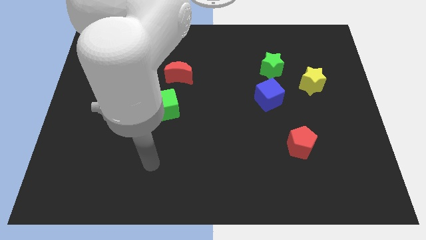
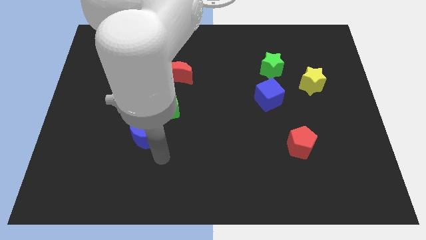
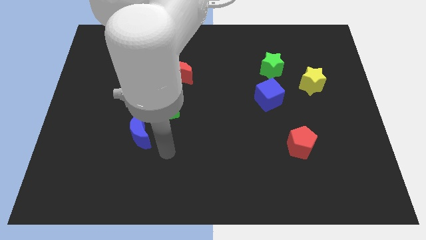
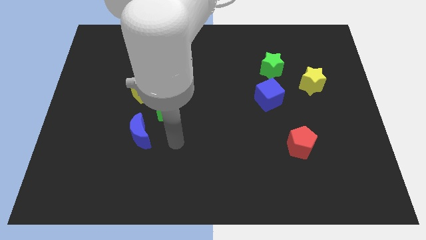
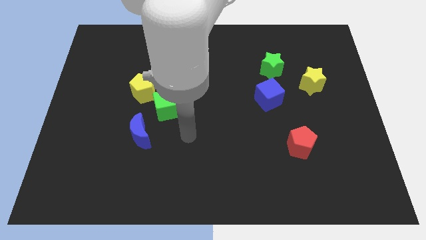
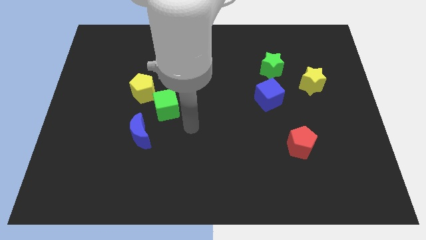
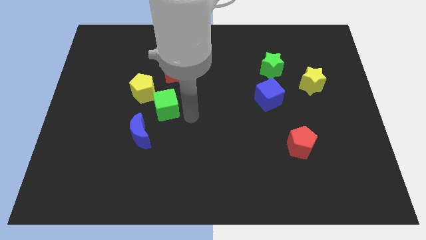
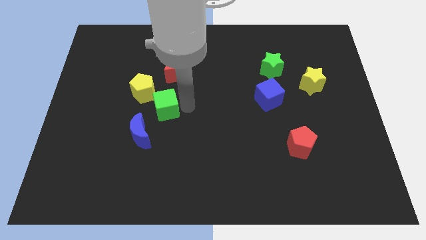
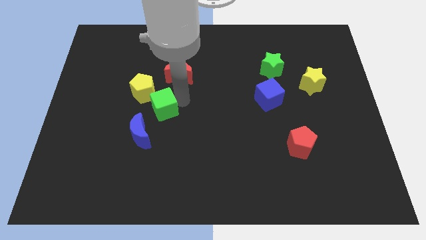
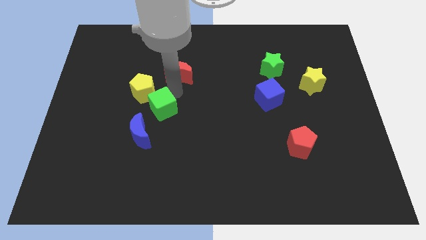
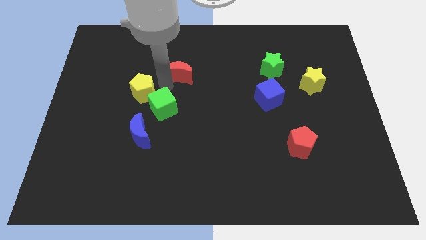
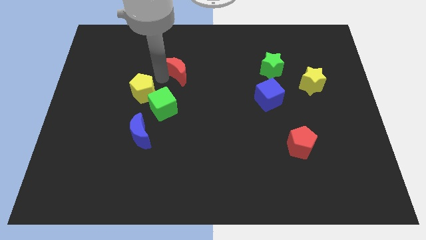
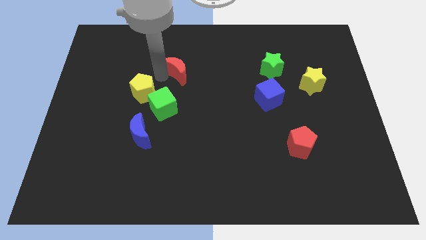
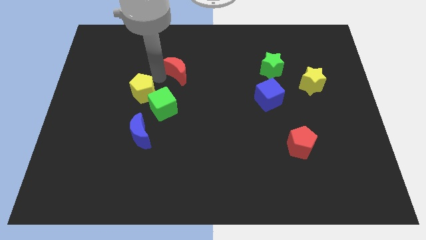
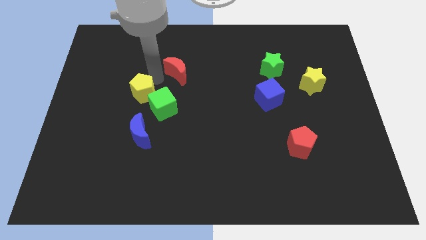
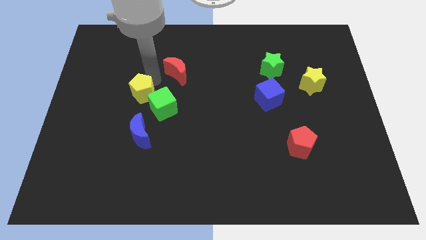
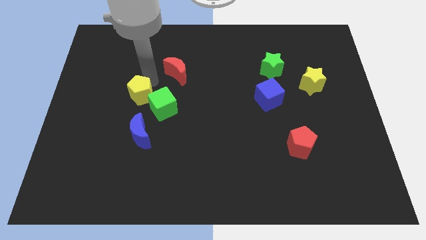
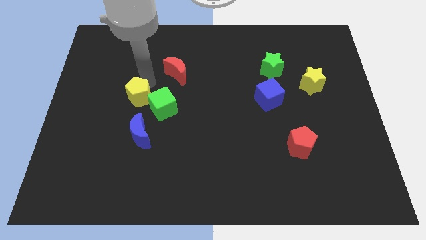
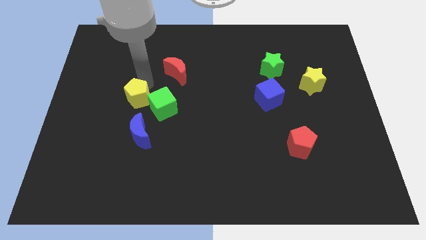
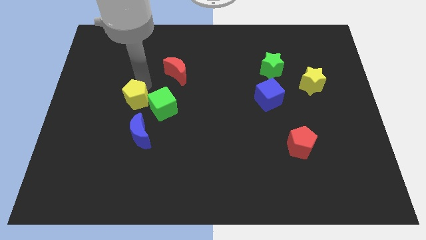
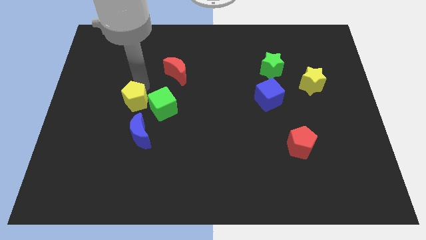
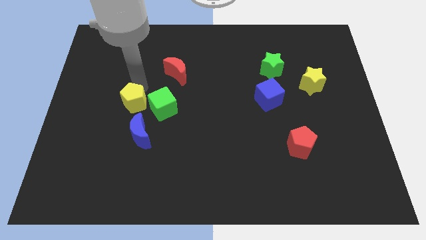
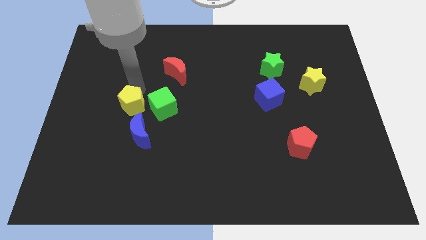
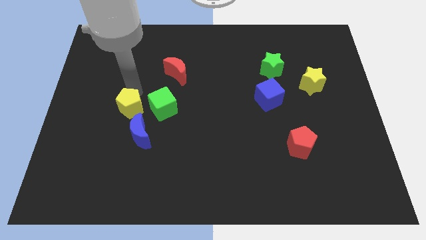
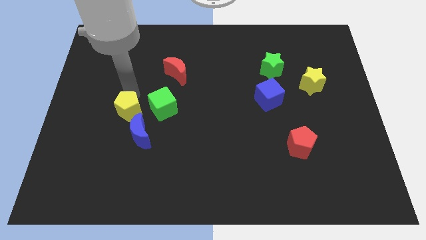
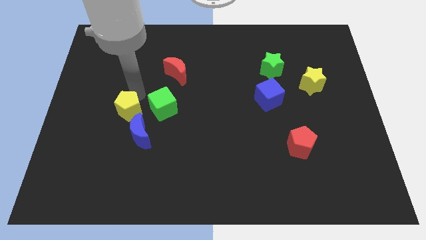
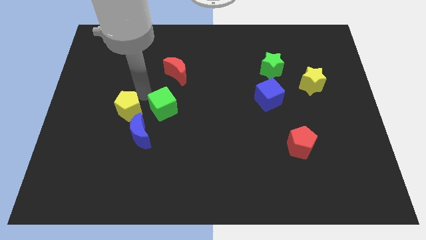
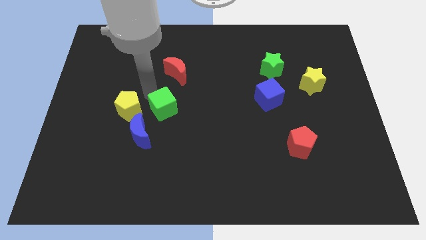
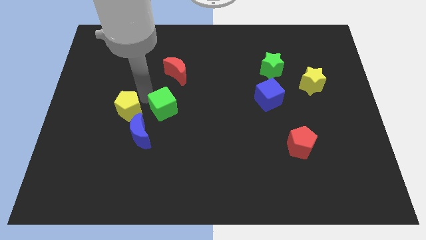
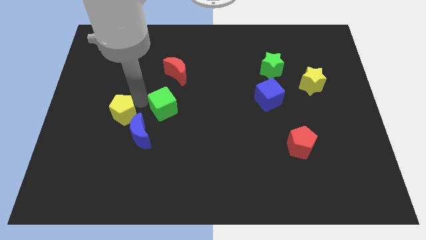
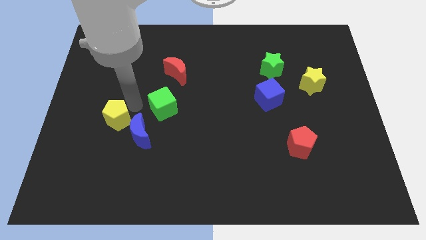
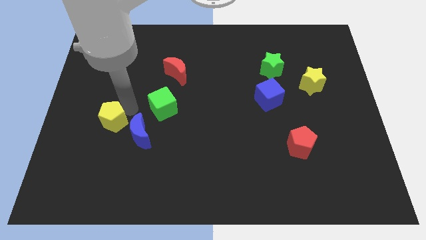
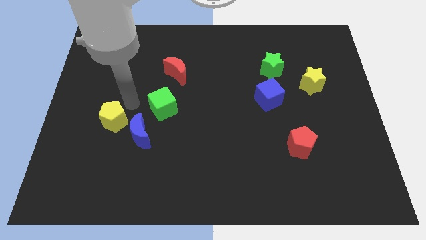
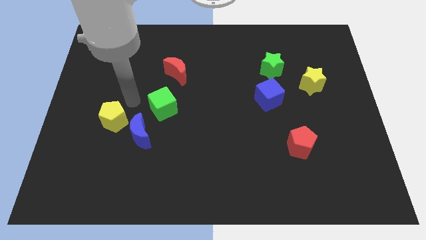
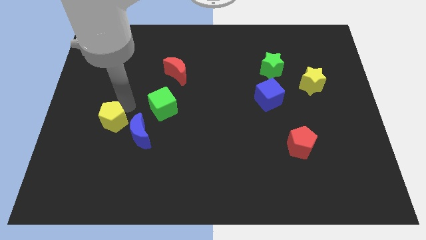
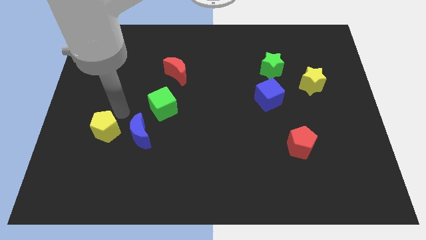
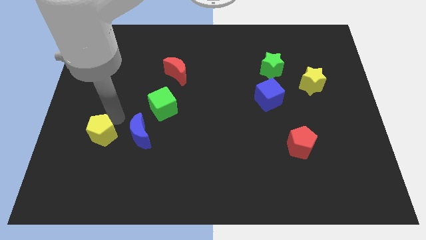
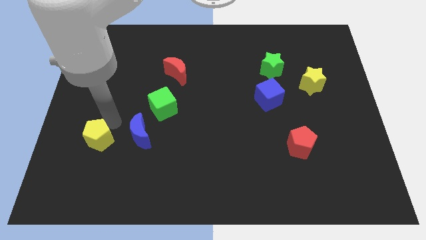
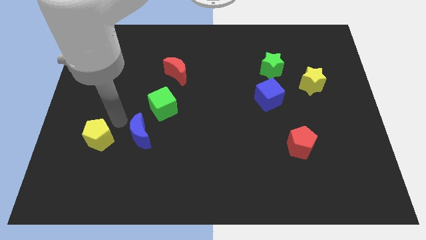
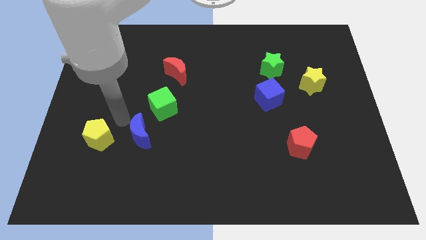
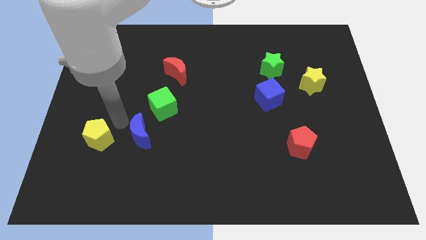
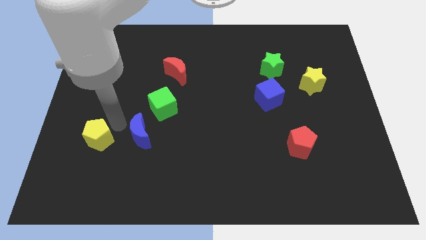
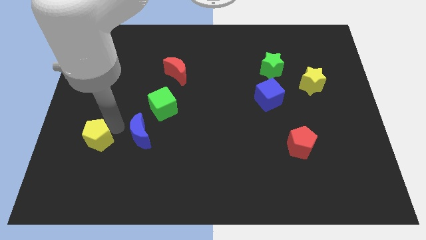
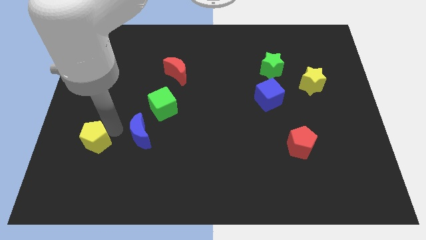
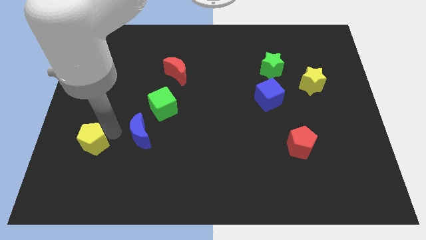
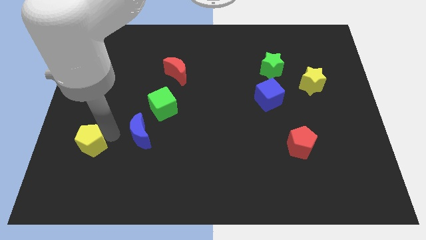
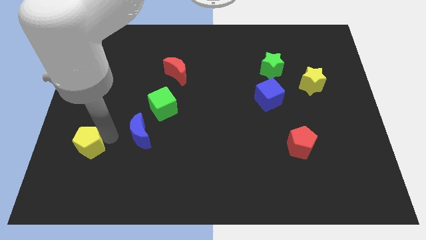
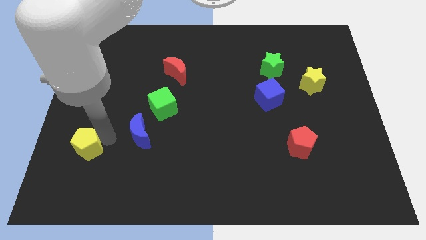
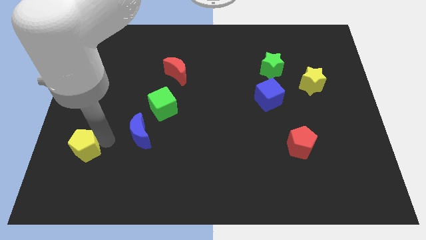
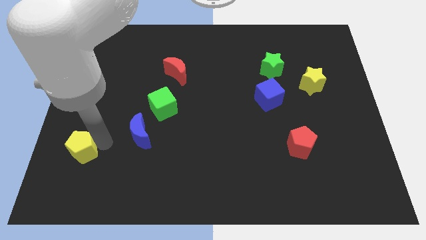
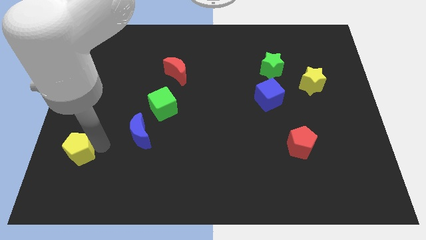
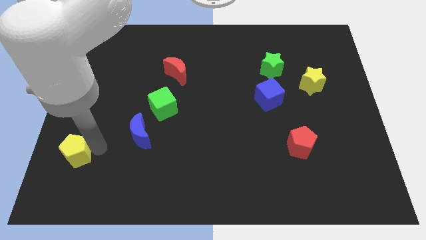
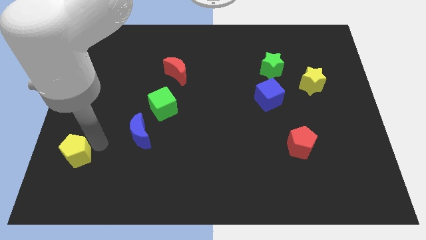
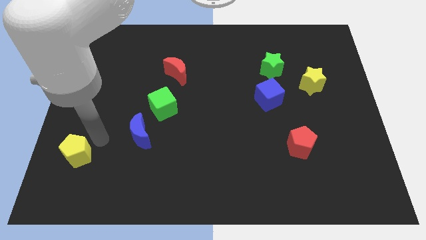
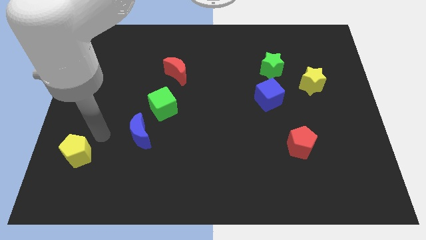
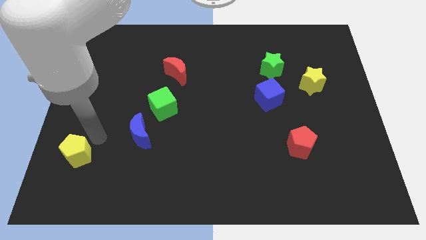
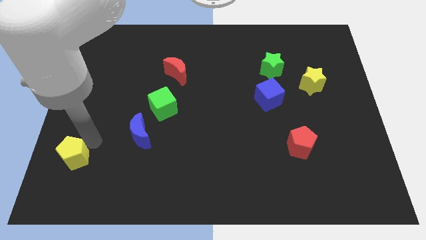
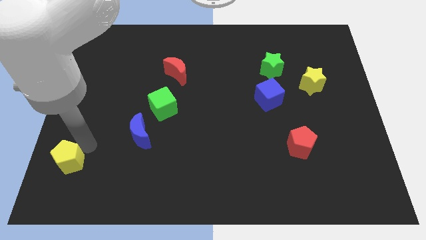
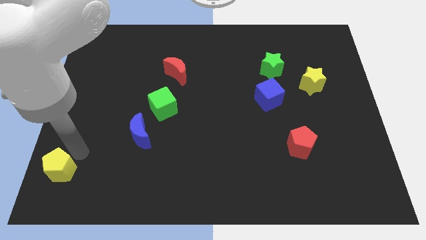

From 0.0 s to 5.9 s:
push the yellow pentagon to the lower left corner

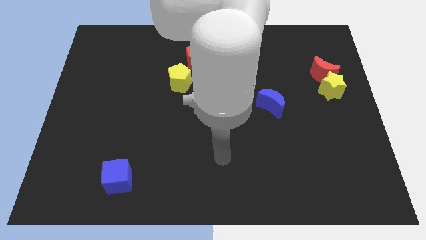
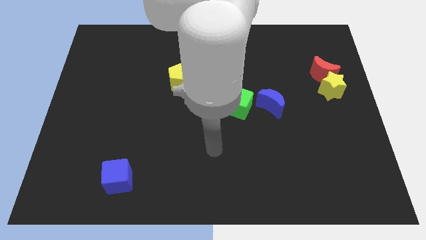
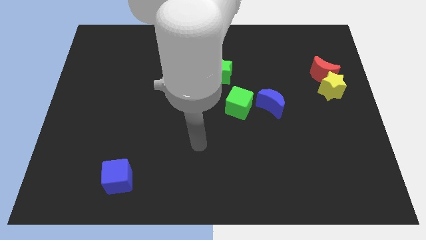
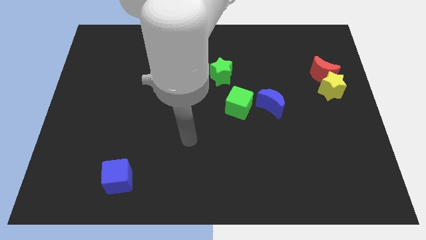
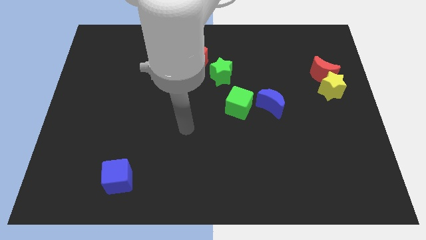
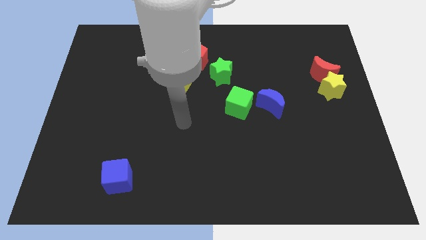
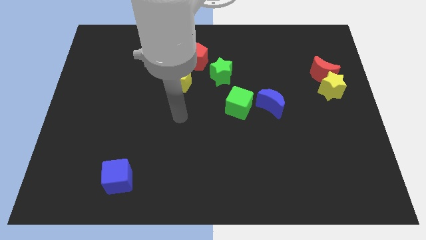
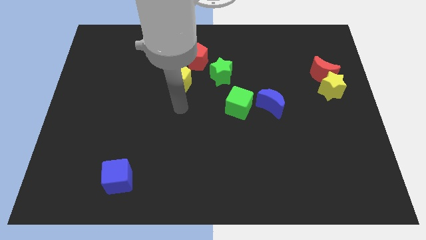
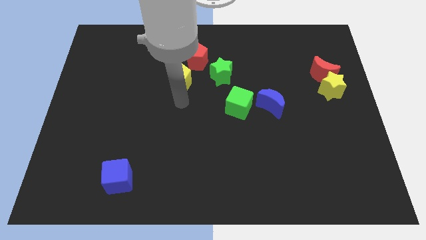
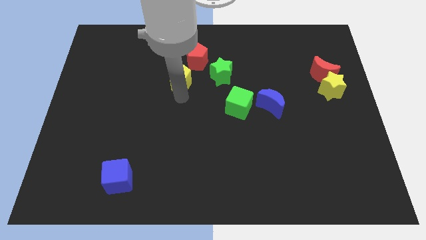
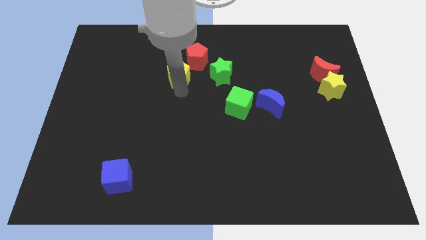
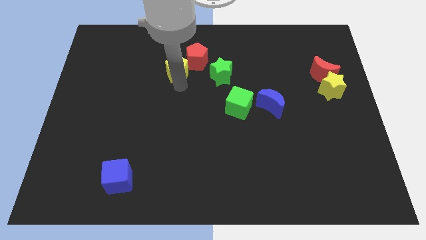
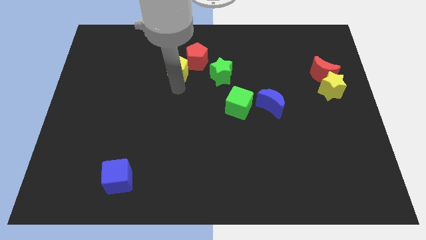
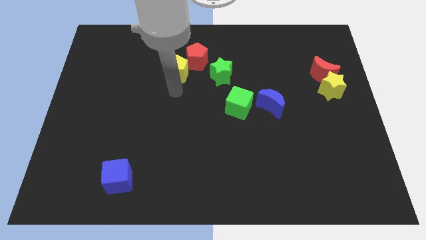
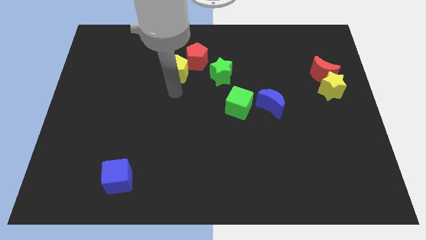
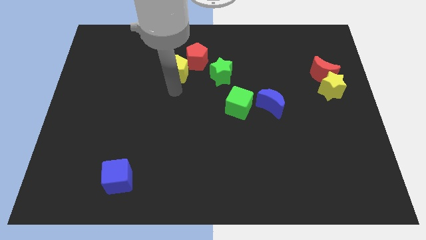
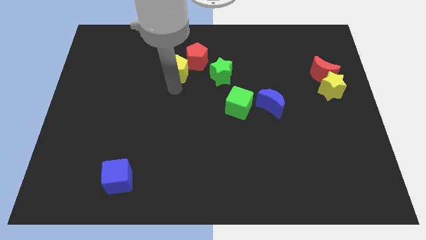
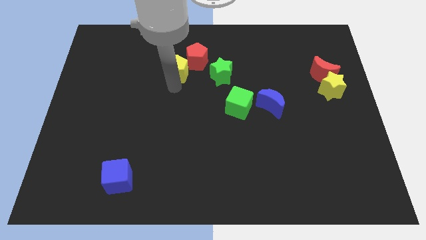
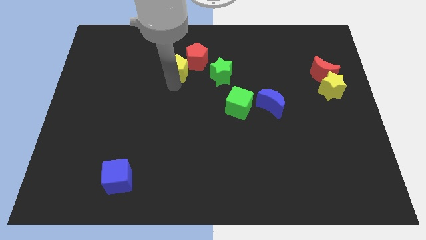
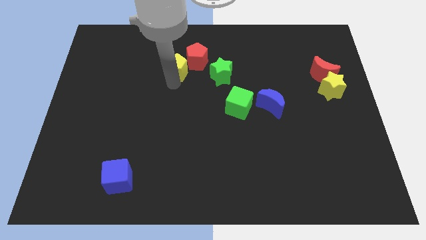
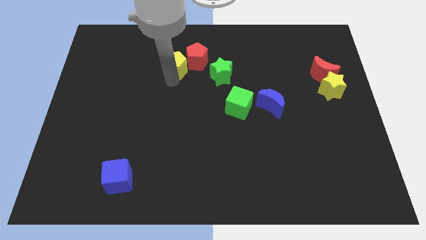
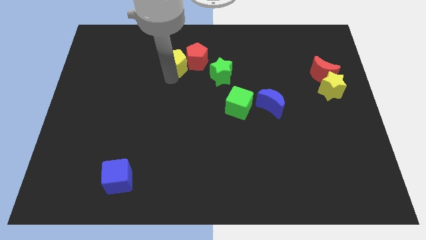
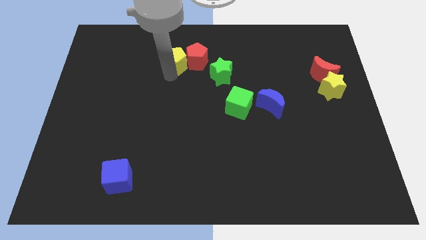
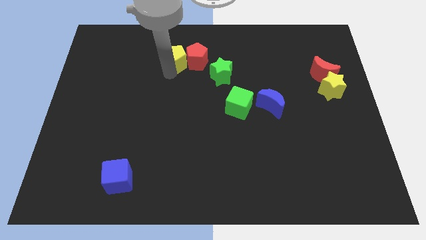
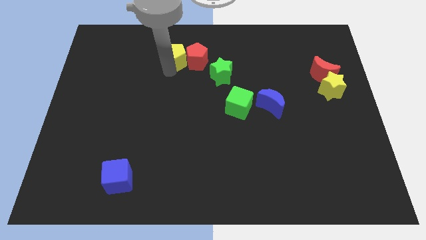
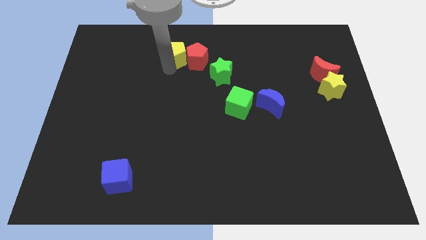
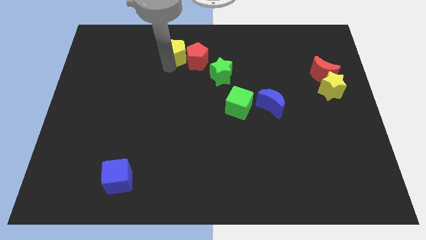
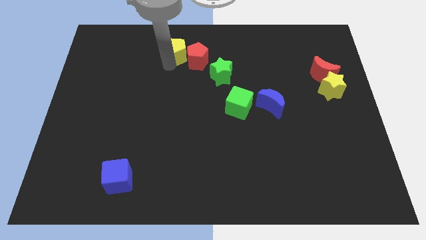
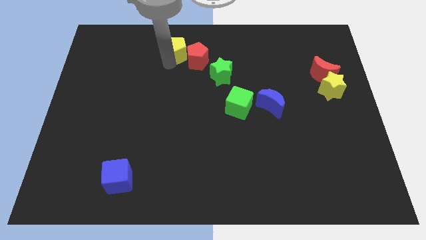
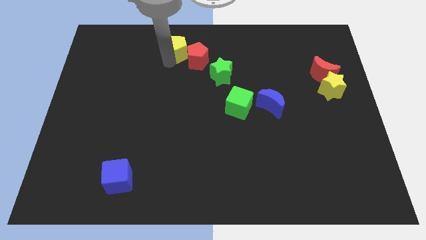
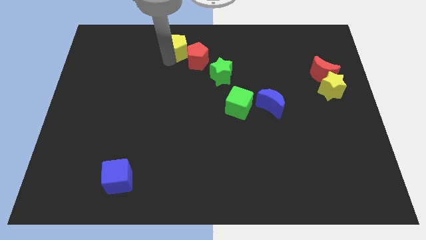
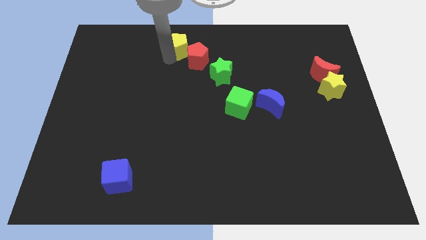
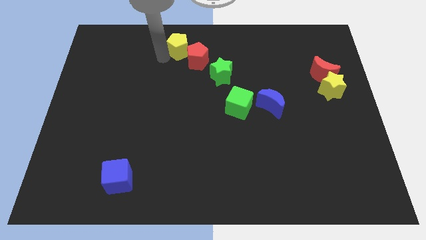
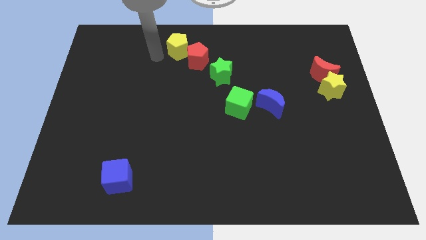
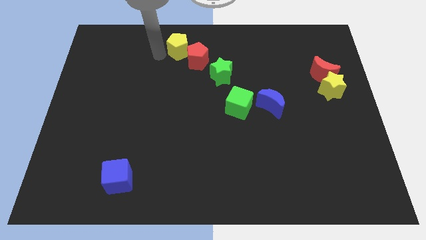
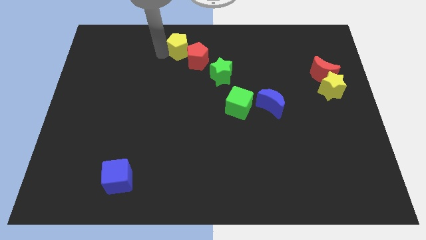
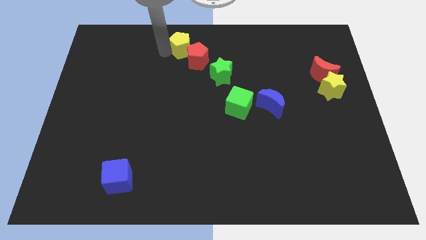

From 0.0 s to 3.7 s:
move the yellow pentagon to the top side
